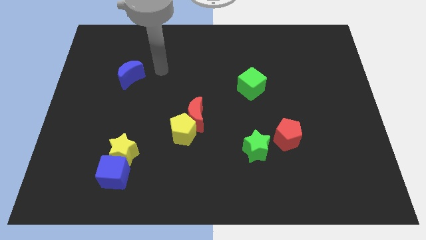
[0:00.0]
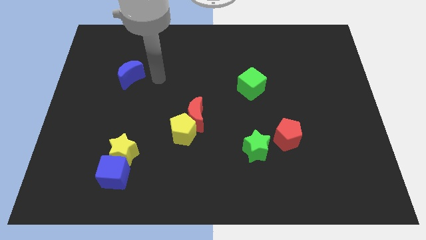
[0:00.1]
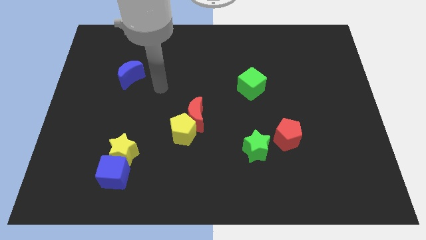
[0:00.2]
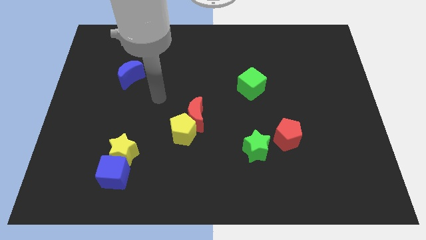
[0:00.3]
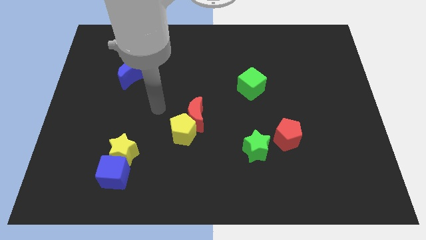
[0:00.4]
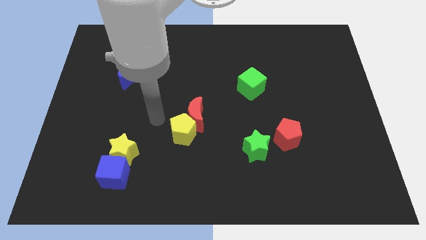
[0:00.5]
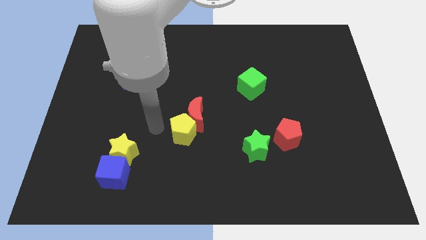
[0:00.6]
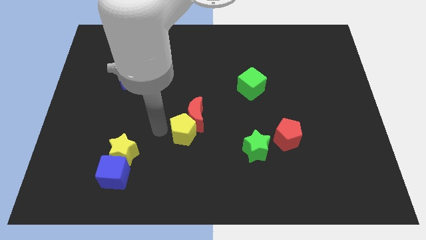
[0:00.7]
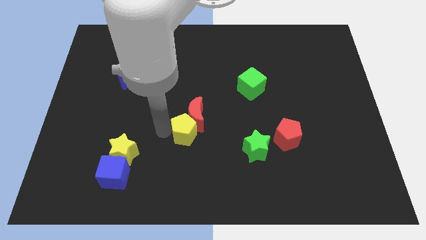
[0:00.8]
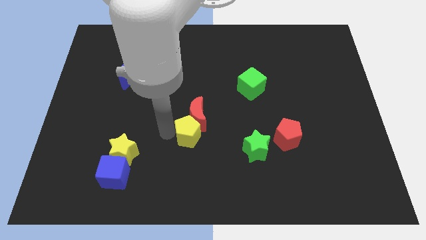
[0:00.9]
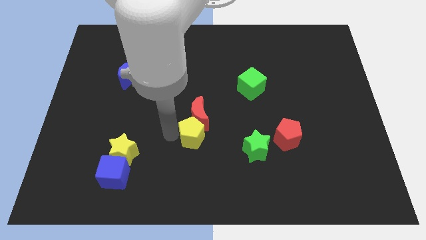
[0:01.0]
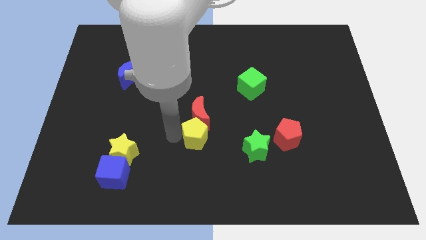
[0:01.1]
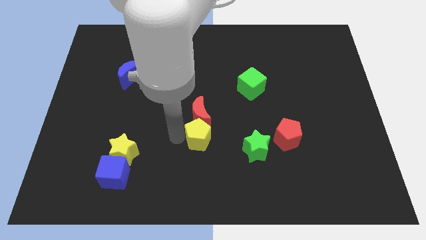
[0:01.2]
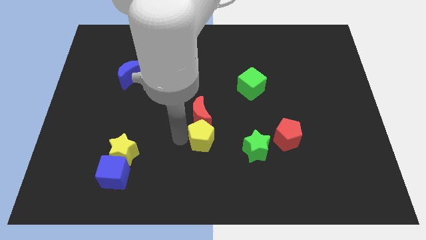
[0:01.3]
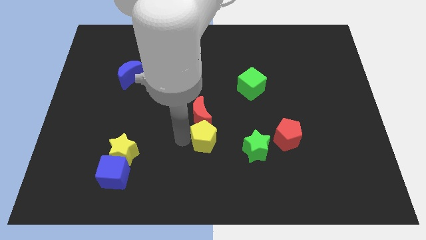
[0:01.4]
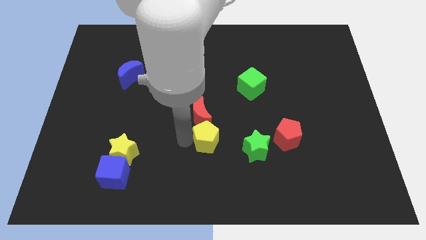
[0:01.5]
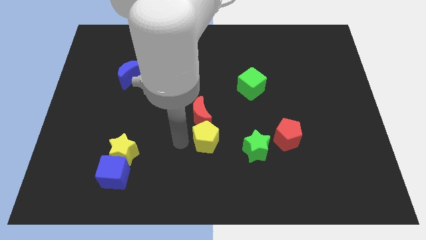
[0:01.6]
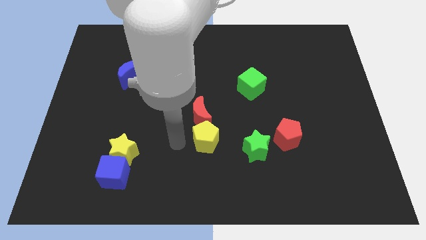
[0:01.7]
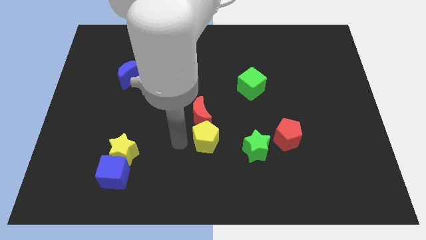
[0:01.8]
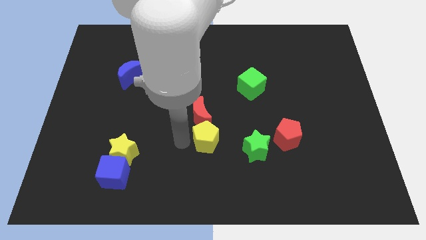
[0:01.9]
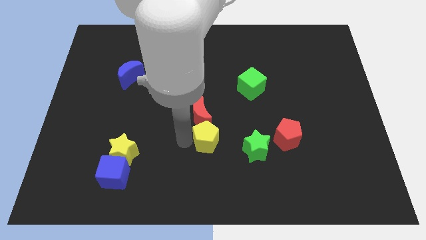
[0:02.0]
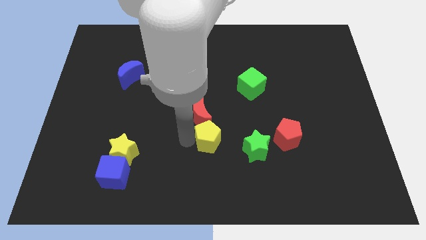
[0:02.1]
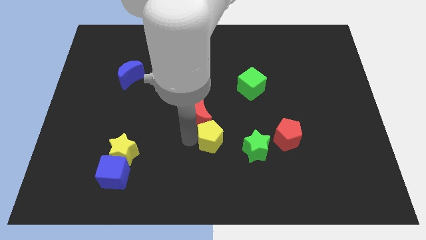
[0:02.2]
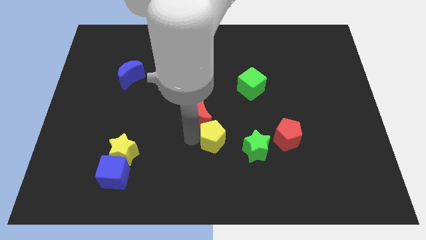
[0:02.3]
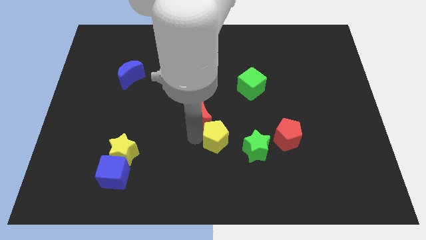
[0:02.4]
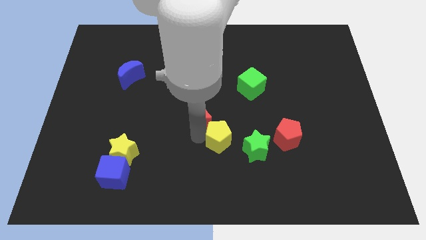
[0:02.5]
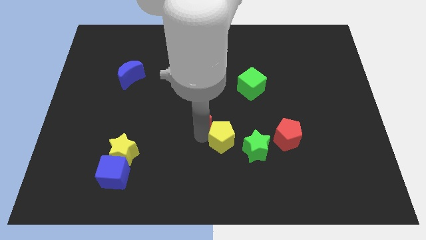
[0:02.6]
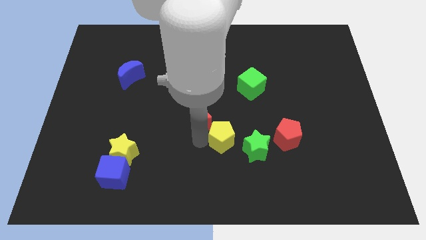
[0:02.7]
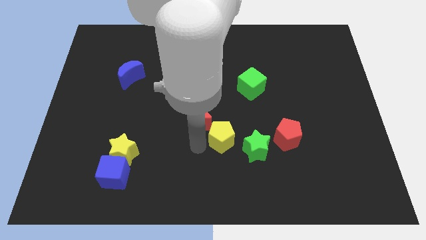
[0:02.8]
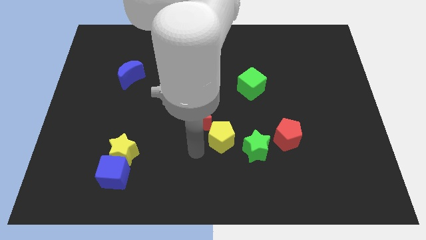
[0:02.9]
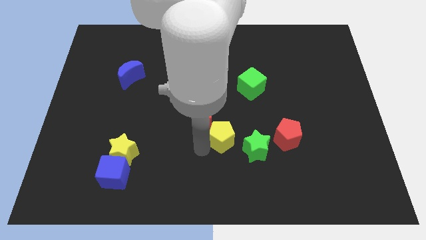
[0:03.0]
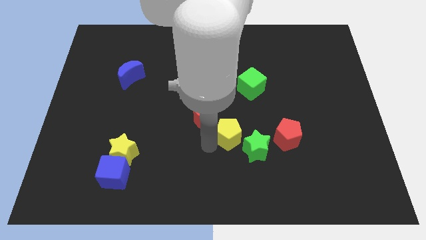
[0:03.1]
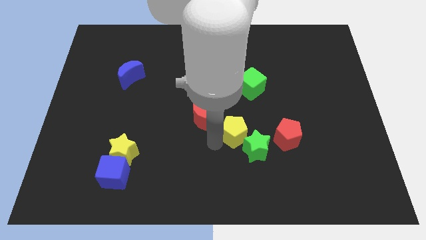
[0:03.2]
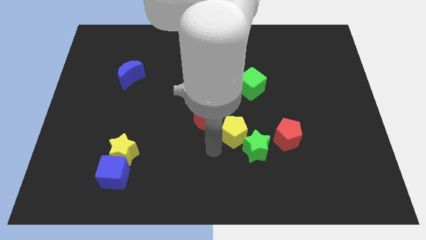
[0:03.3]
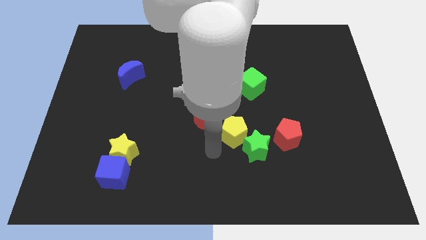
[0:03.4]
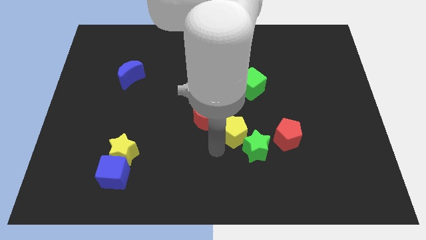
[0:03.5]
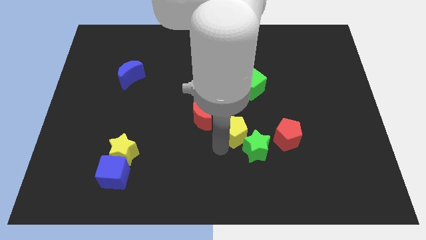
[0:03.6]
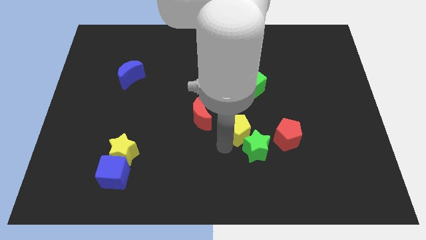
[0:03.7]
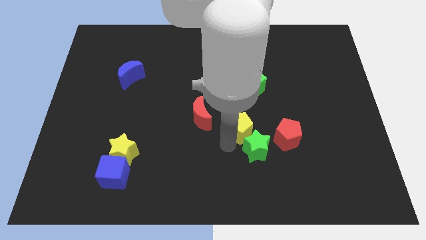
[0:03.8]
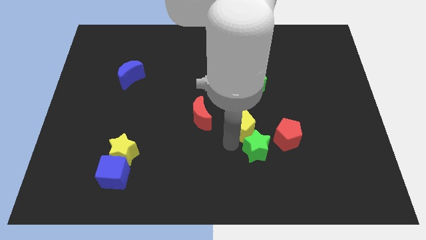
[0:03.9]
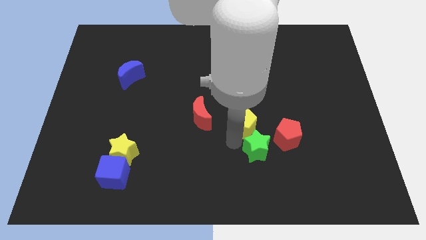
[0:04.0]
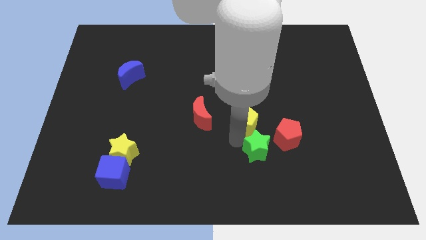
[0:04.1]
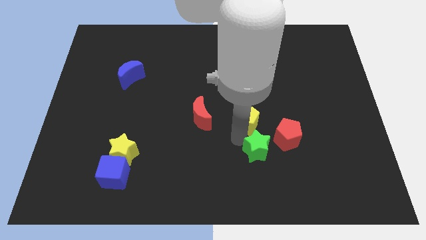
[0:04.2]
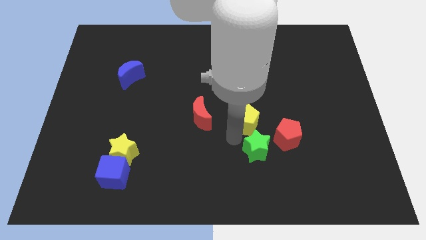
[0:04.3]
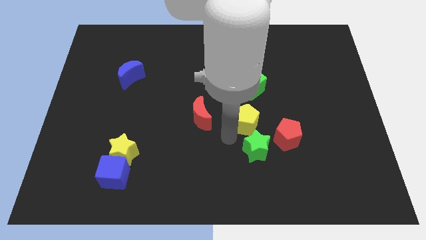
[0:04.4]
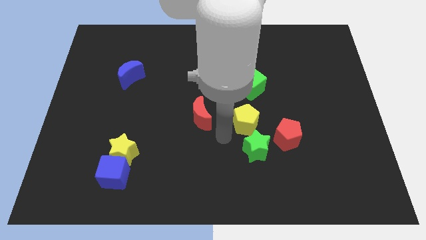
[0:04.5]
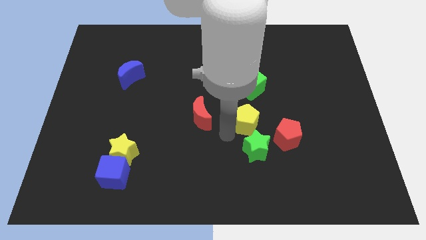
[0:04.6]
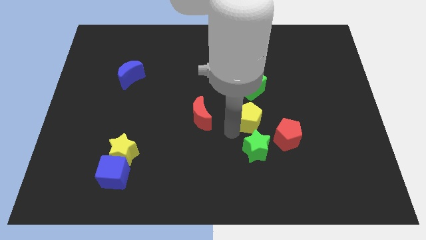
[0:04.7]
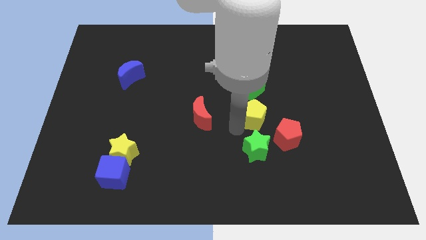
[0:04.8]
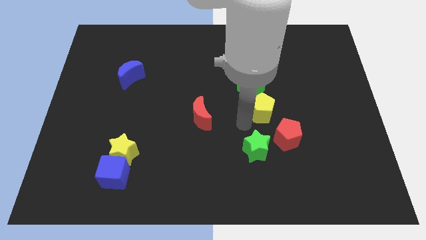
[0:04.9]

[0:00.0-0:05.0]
slide the yellow pentagon above the red pentagon

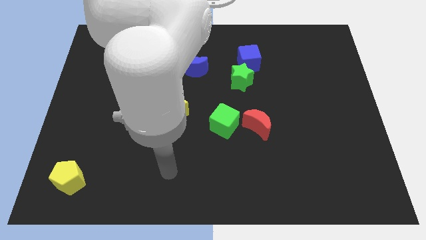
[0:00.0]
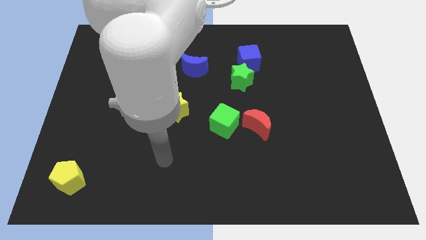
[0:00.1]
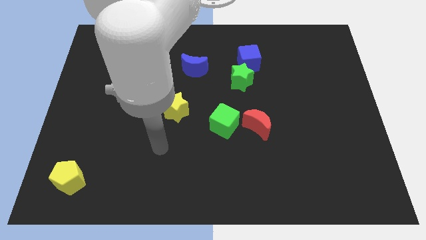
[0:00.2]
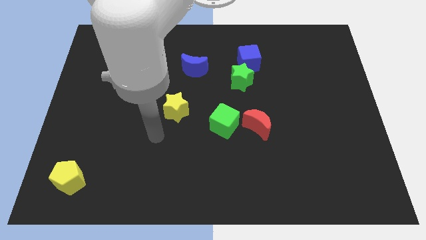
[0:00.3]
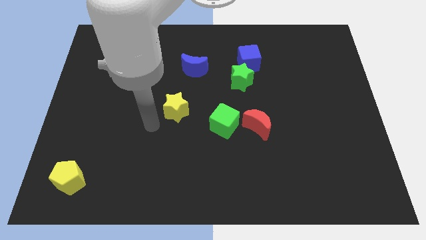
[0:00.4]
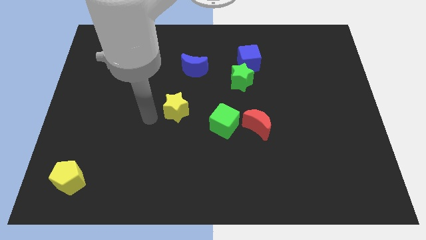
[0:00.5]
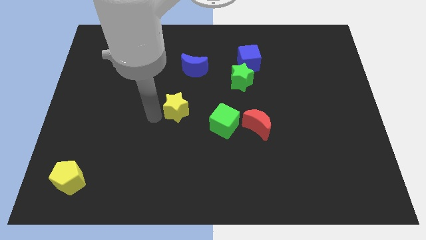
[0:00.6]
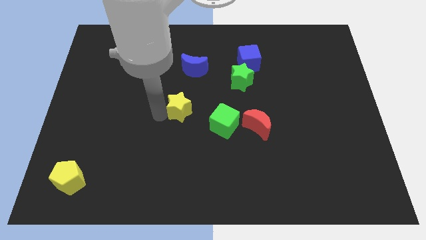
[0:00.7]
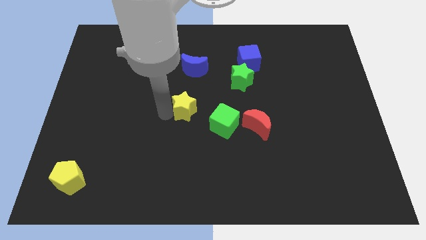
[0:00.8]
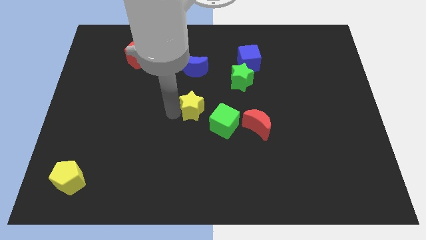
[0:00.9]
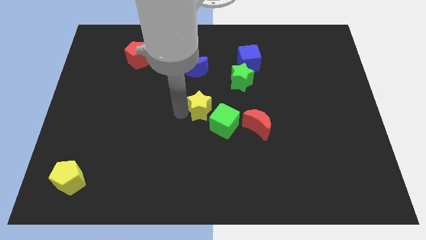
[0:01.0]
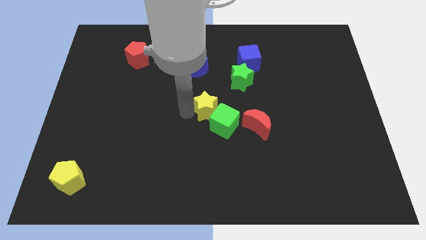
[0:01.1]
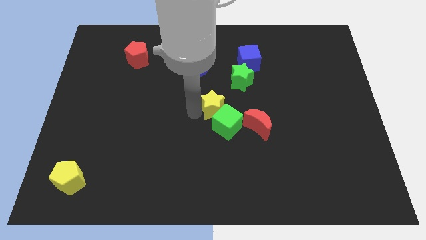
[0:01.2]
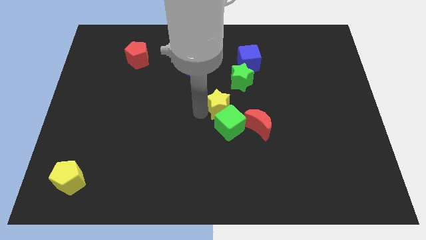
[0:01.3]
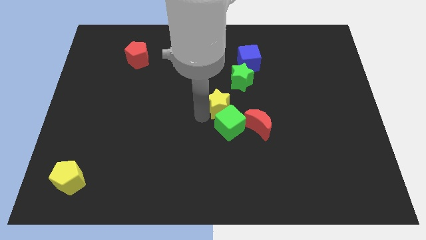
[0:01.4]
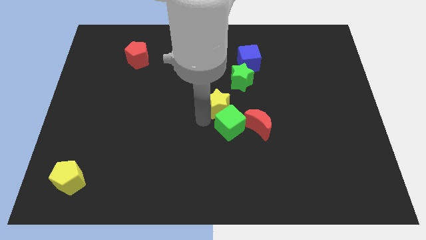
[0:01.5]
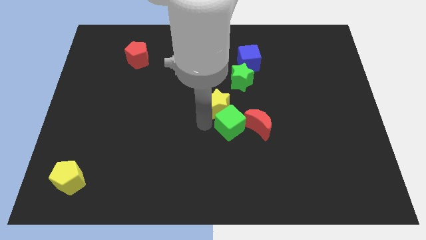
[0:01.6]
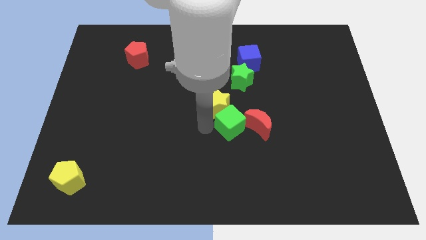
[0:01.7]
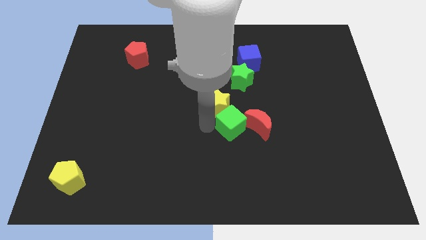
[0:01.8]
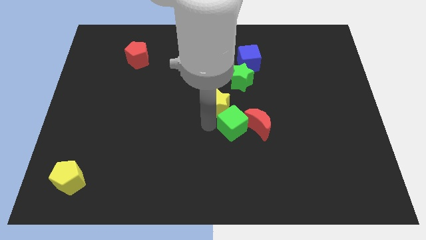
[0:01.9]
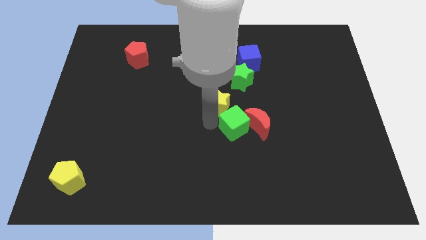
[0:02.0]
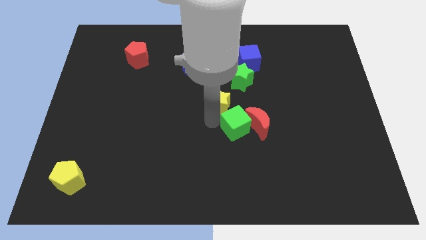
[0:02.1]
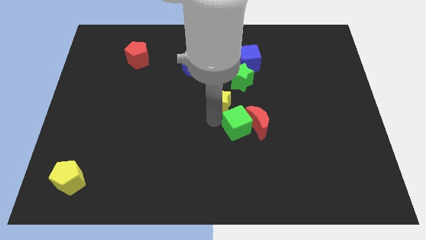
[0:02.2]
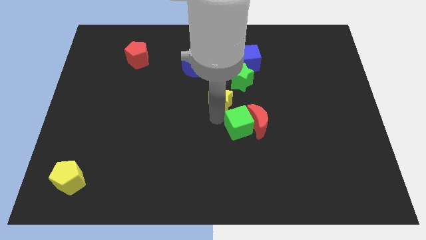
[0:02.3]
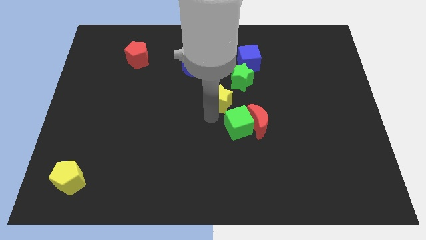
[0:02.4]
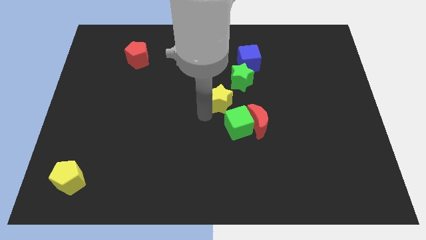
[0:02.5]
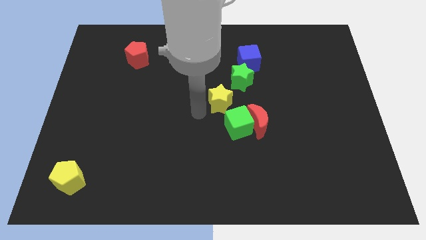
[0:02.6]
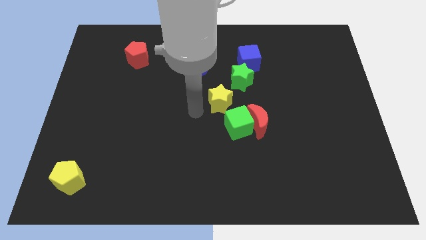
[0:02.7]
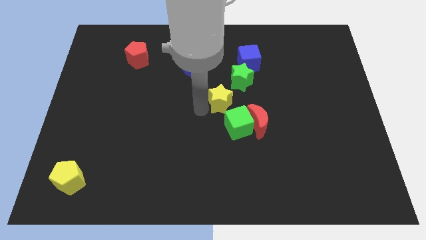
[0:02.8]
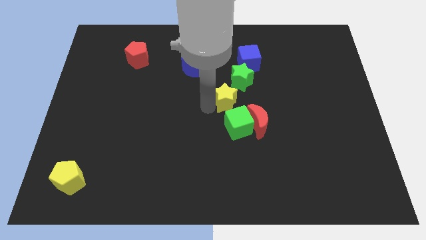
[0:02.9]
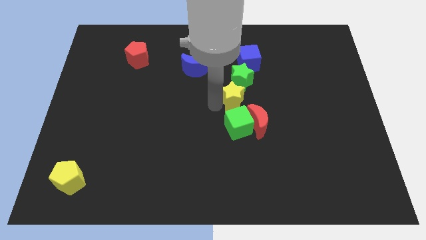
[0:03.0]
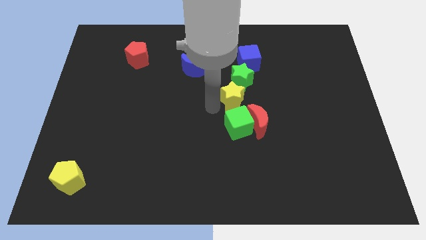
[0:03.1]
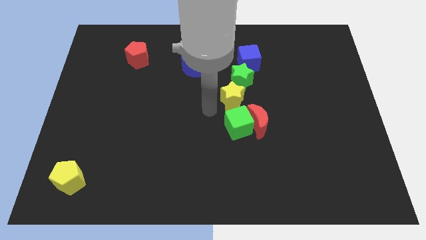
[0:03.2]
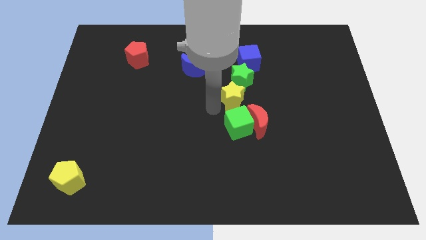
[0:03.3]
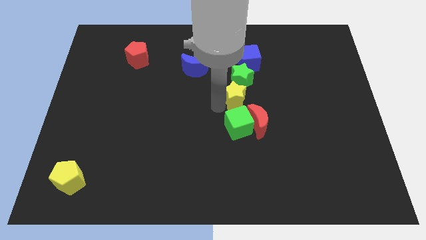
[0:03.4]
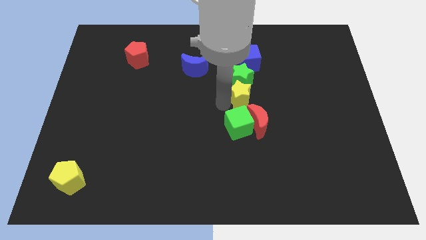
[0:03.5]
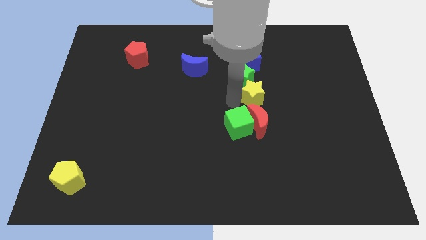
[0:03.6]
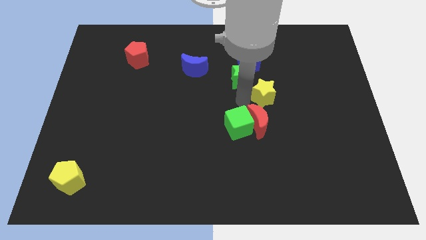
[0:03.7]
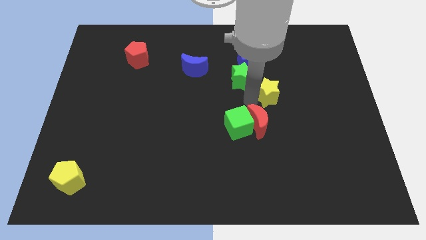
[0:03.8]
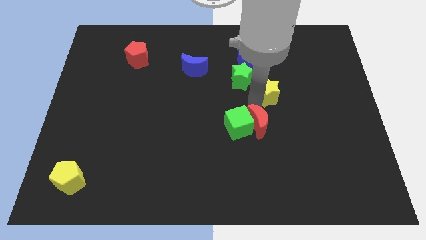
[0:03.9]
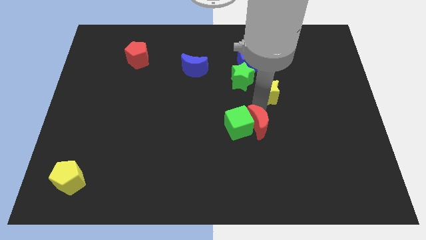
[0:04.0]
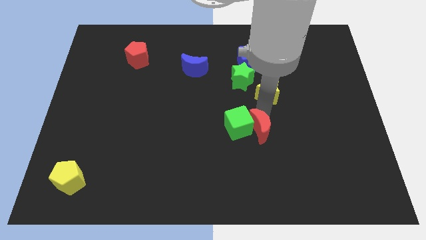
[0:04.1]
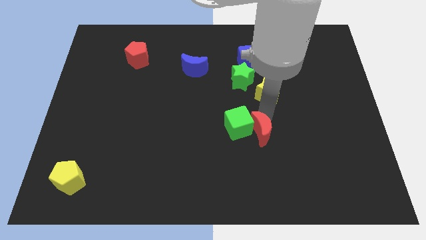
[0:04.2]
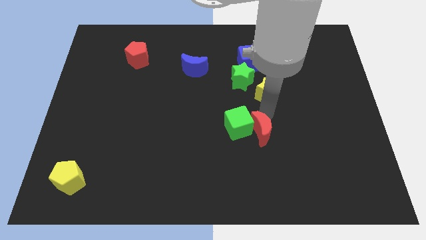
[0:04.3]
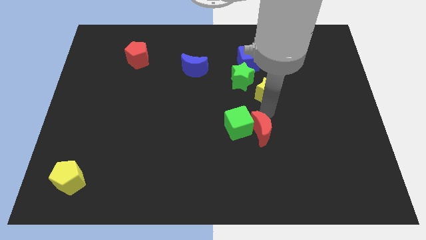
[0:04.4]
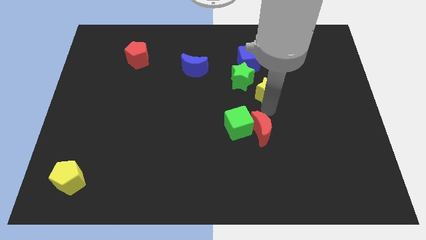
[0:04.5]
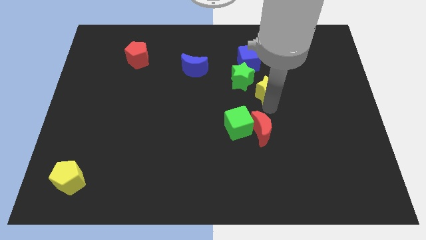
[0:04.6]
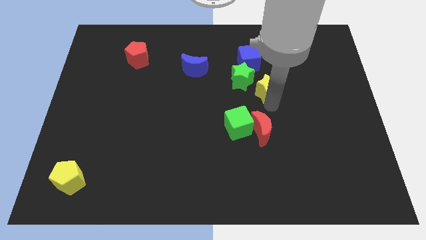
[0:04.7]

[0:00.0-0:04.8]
push the yellow star to the bottom right of the blue cube
